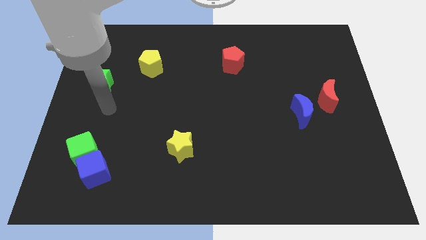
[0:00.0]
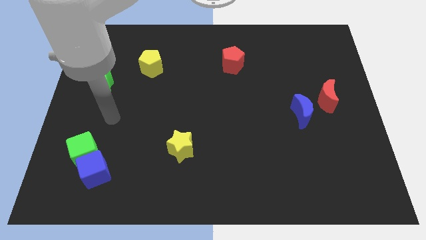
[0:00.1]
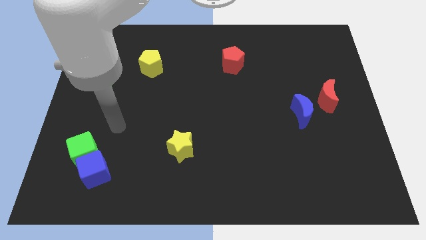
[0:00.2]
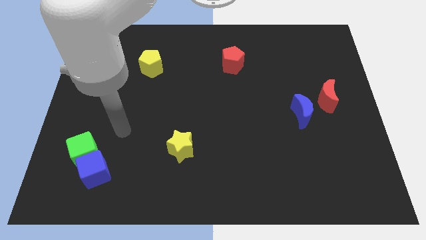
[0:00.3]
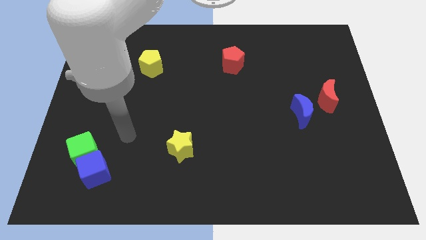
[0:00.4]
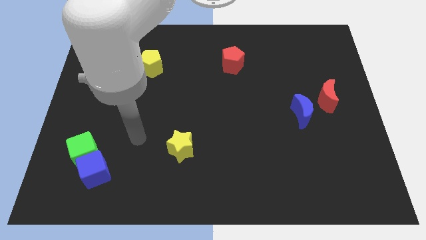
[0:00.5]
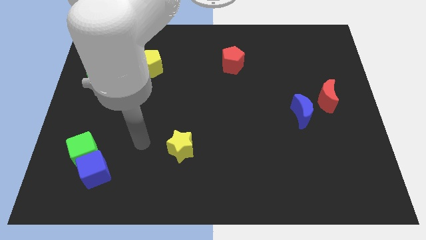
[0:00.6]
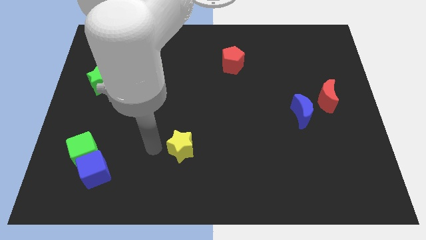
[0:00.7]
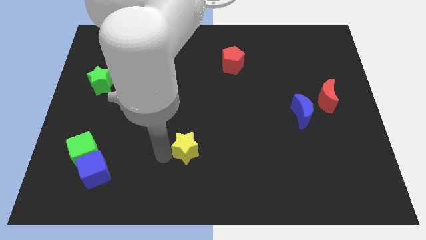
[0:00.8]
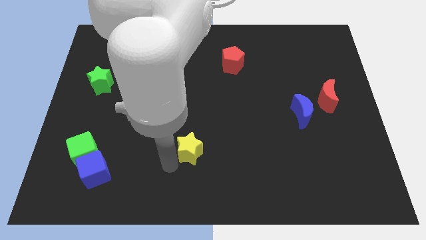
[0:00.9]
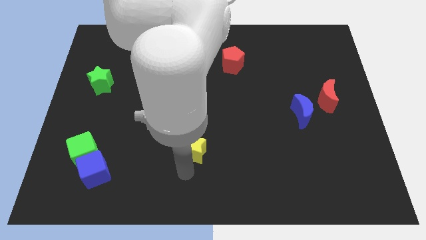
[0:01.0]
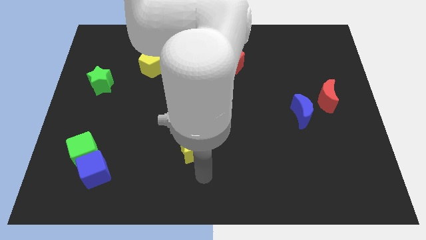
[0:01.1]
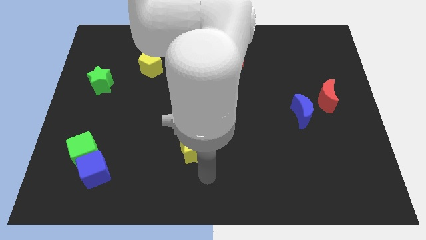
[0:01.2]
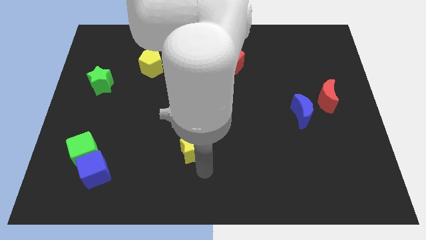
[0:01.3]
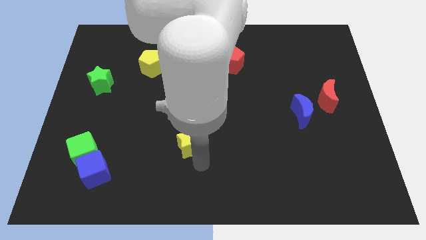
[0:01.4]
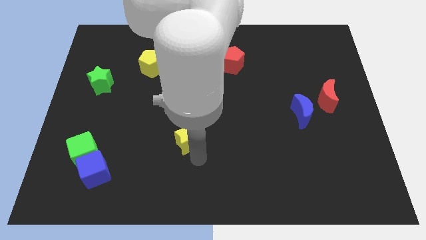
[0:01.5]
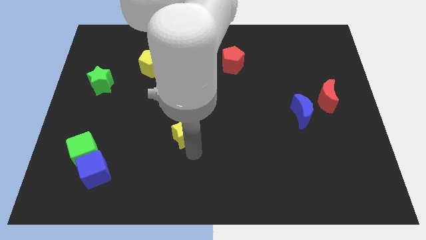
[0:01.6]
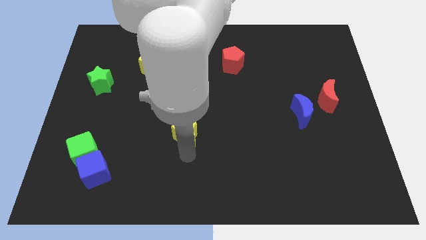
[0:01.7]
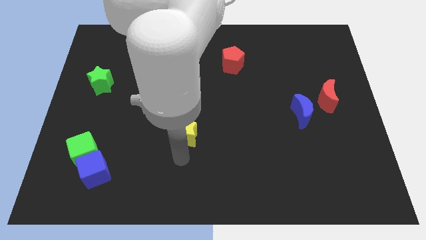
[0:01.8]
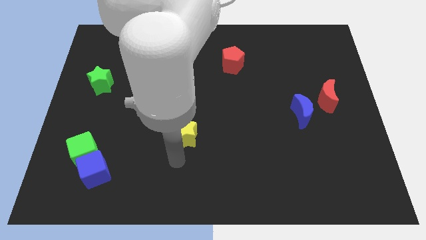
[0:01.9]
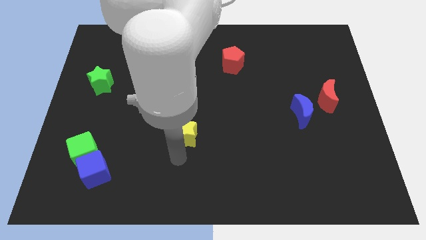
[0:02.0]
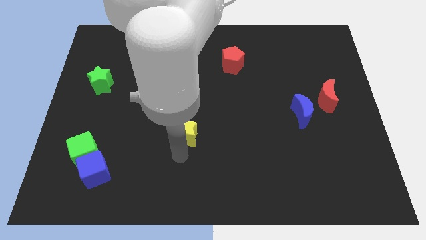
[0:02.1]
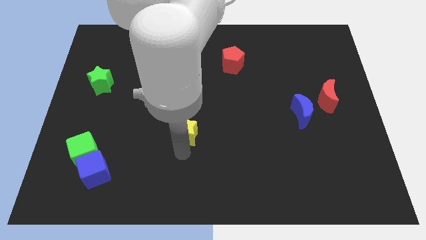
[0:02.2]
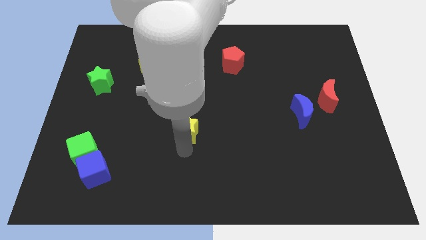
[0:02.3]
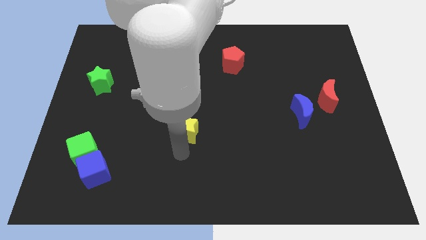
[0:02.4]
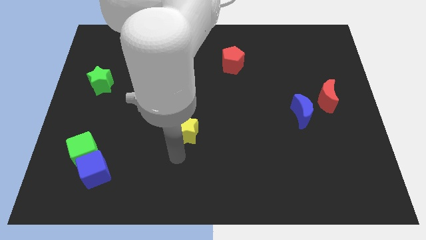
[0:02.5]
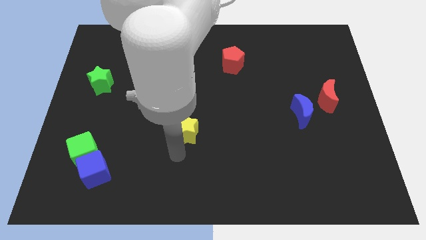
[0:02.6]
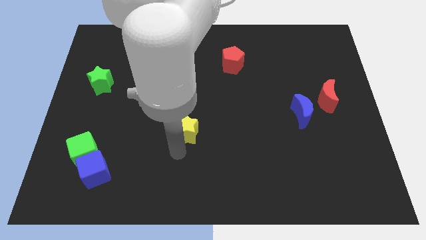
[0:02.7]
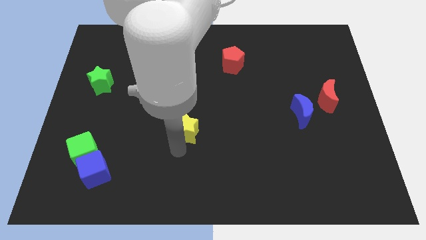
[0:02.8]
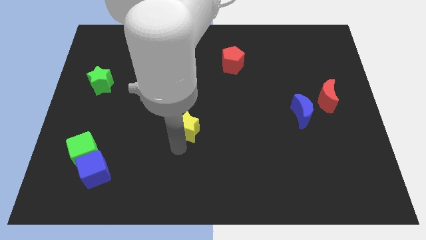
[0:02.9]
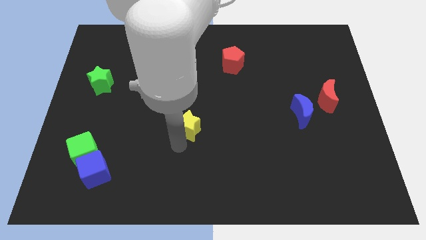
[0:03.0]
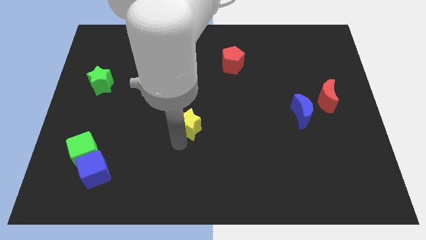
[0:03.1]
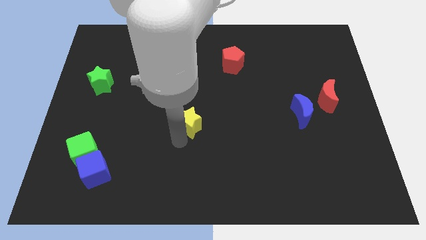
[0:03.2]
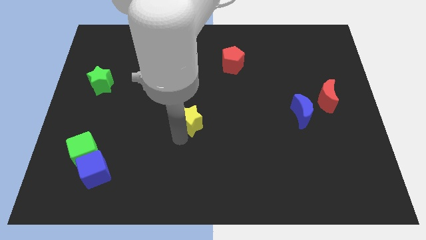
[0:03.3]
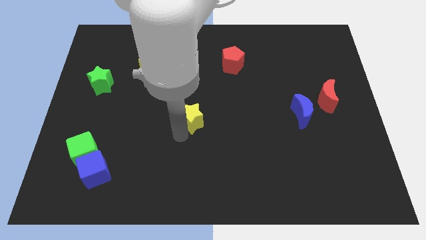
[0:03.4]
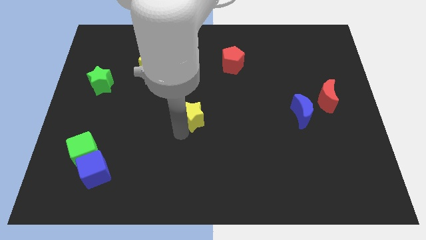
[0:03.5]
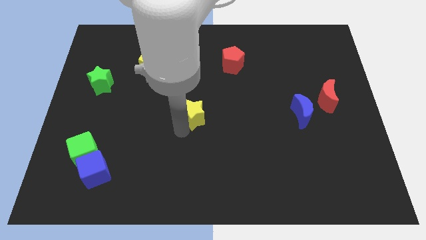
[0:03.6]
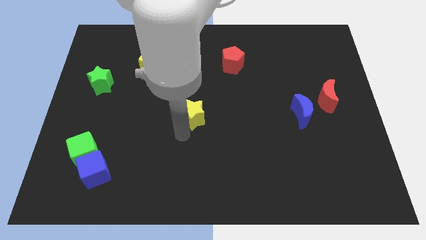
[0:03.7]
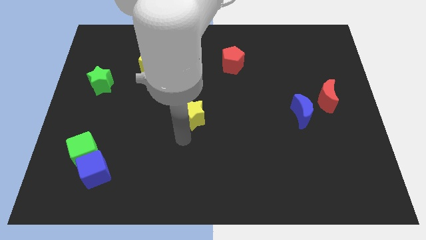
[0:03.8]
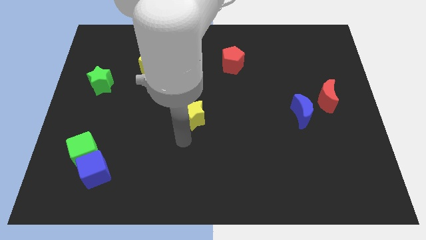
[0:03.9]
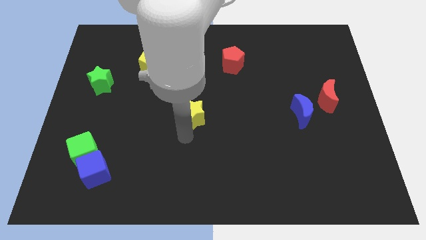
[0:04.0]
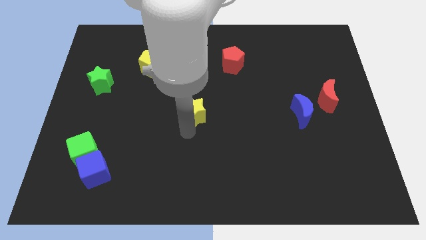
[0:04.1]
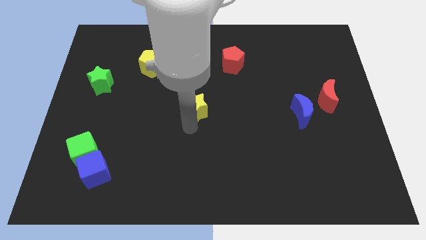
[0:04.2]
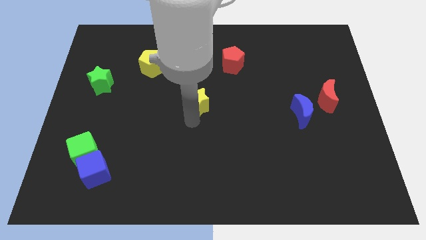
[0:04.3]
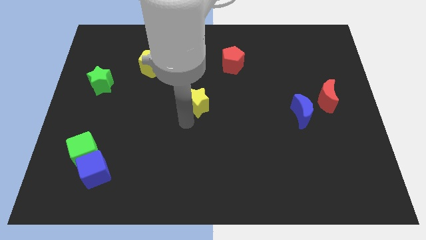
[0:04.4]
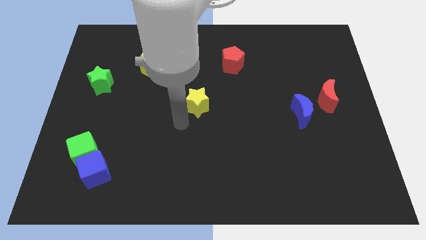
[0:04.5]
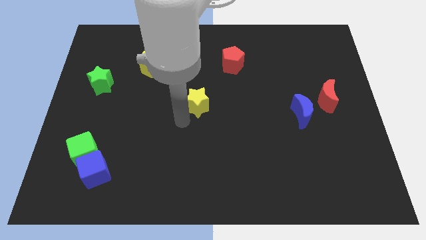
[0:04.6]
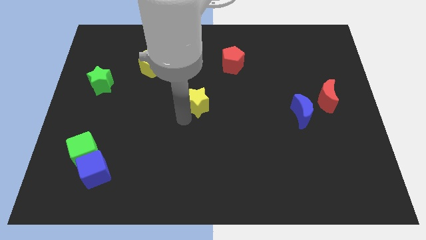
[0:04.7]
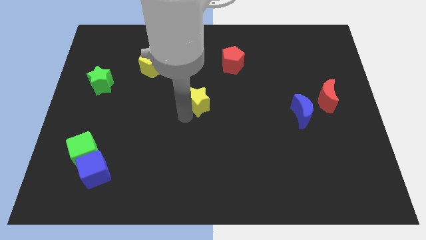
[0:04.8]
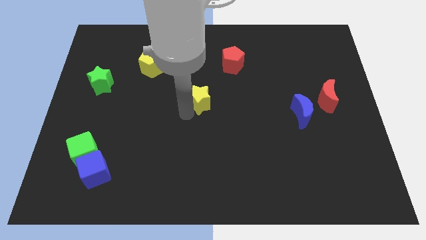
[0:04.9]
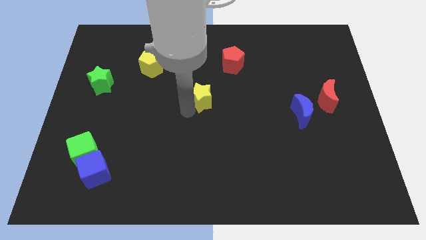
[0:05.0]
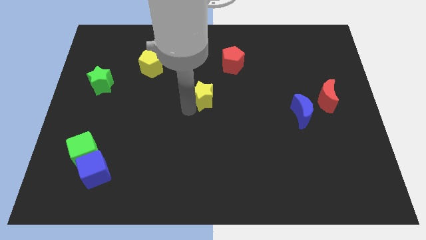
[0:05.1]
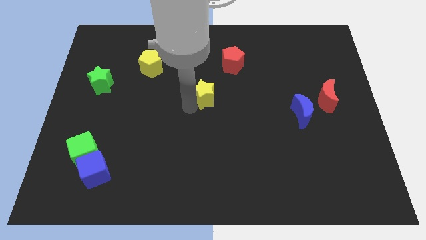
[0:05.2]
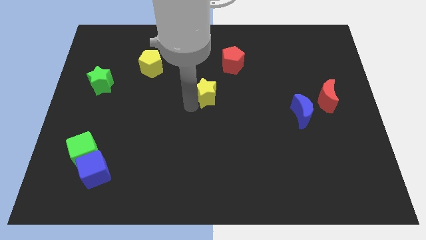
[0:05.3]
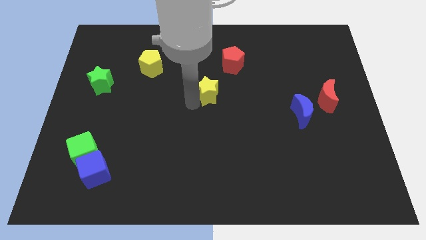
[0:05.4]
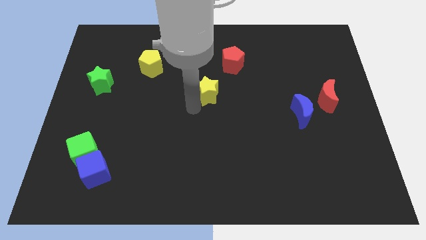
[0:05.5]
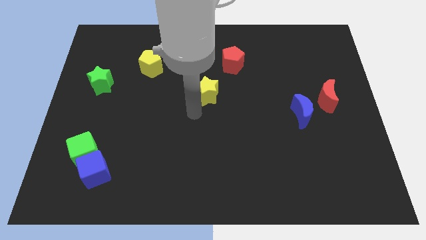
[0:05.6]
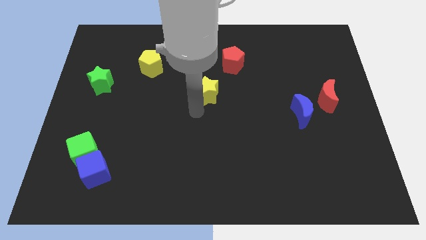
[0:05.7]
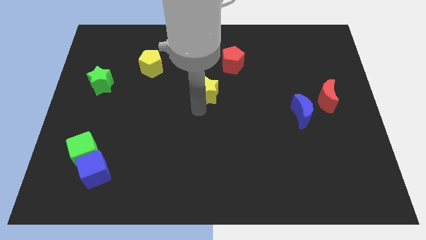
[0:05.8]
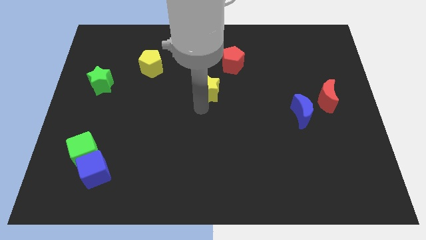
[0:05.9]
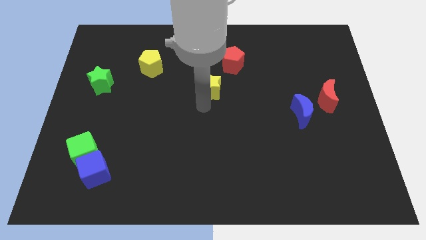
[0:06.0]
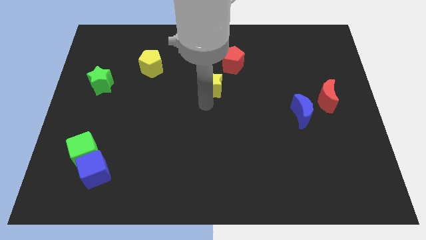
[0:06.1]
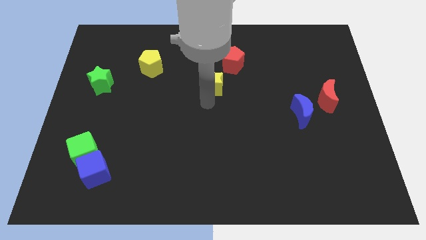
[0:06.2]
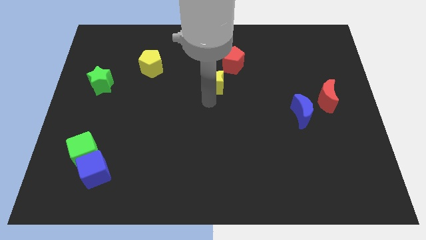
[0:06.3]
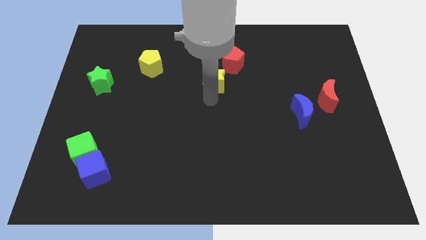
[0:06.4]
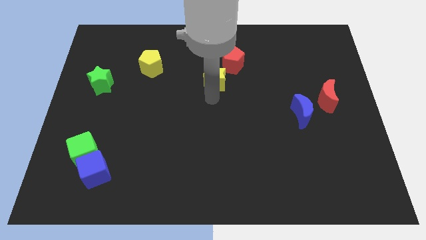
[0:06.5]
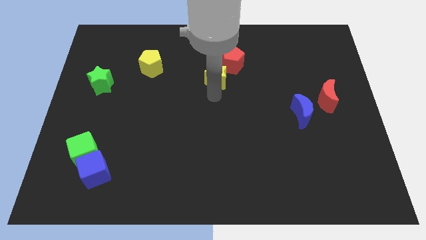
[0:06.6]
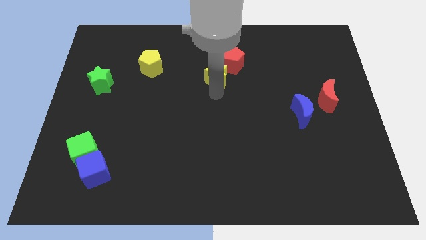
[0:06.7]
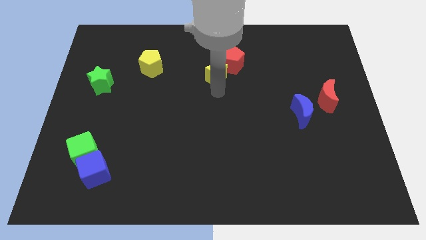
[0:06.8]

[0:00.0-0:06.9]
put the yellow star towards the red pentagon
